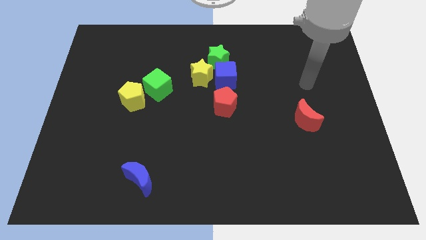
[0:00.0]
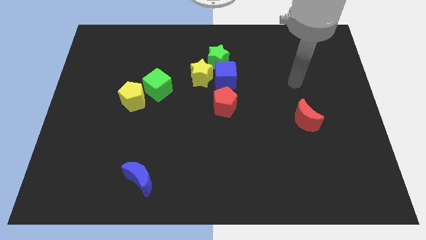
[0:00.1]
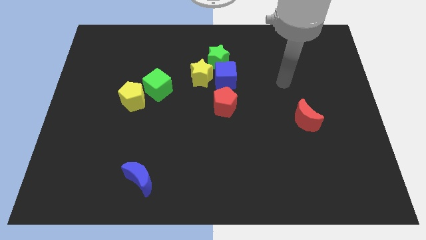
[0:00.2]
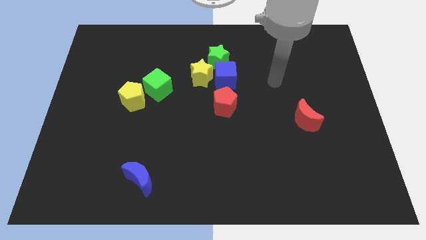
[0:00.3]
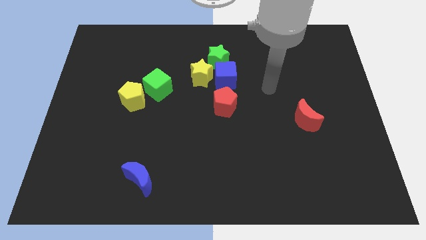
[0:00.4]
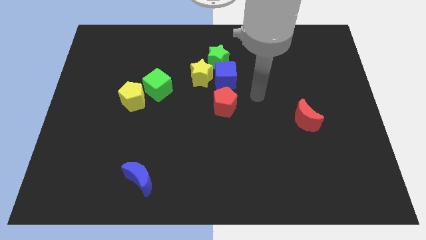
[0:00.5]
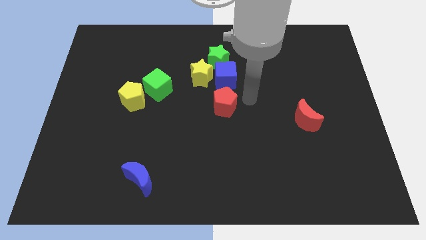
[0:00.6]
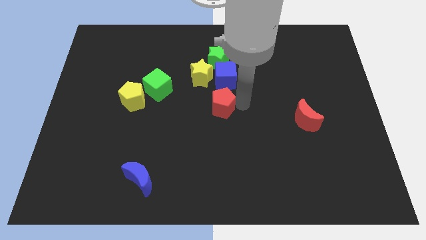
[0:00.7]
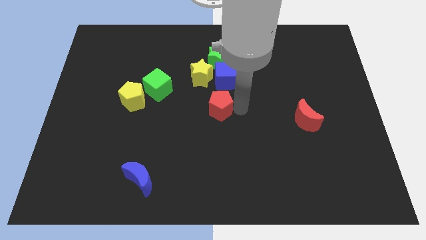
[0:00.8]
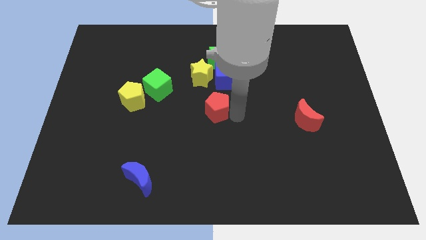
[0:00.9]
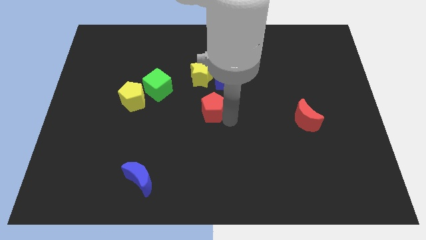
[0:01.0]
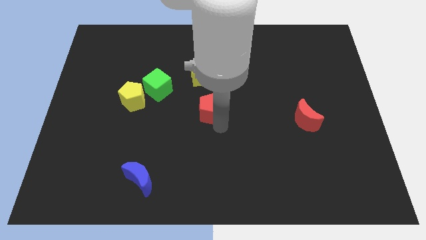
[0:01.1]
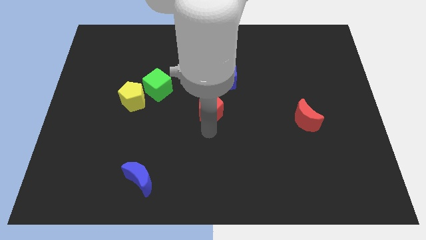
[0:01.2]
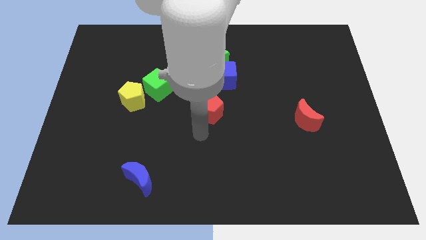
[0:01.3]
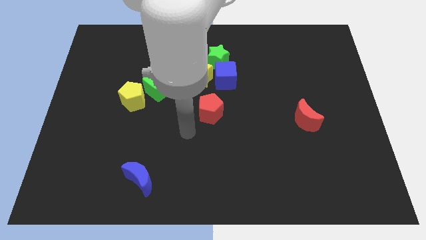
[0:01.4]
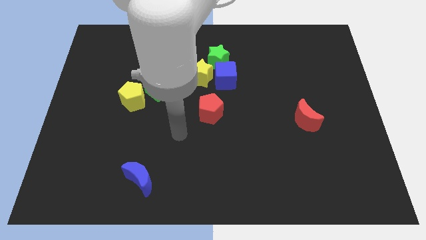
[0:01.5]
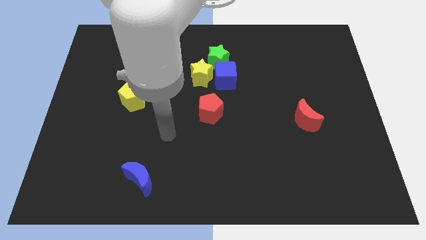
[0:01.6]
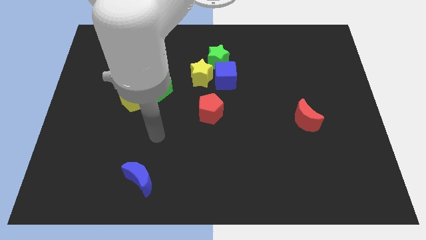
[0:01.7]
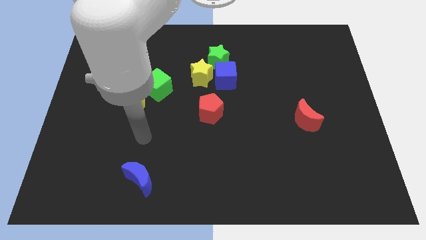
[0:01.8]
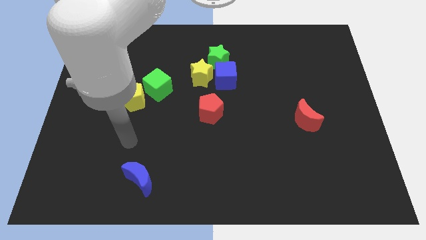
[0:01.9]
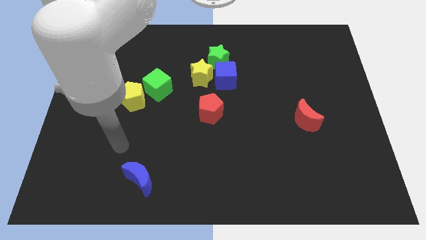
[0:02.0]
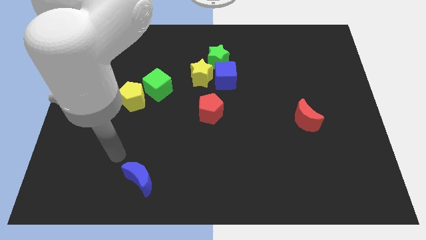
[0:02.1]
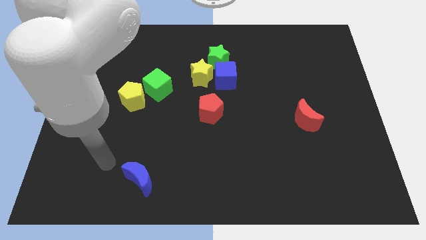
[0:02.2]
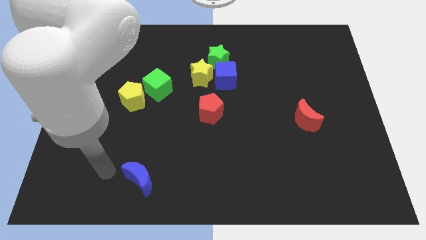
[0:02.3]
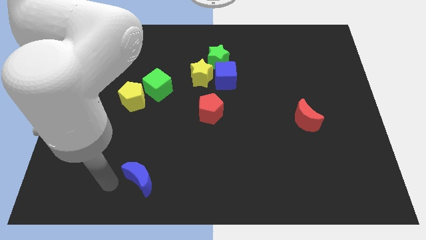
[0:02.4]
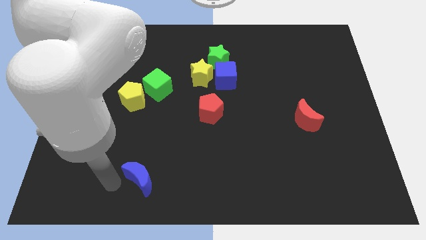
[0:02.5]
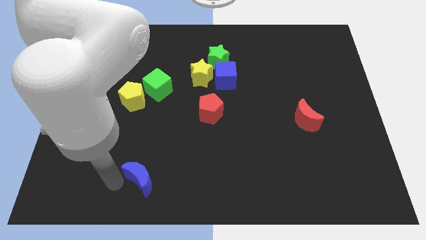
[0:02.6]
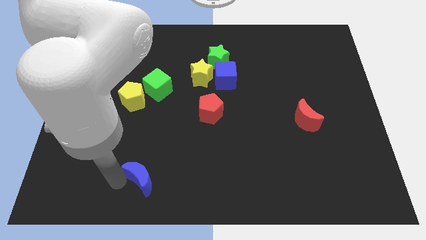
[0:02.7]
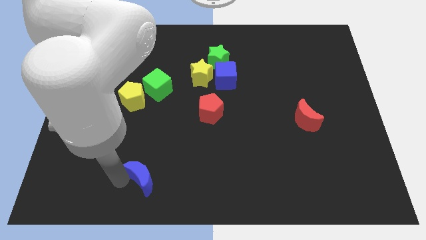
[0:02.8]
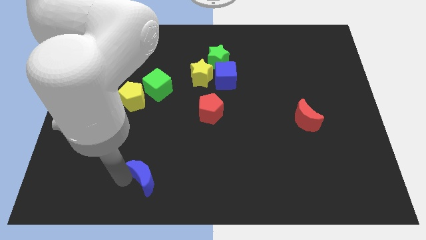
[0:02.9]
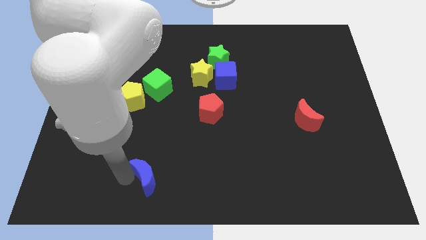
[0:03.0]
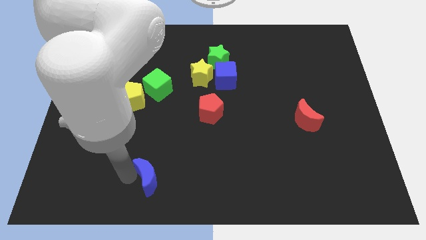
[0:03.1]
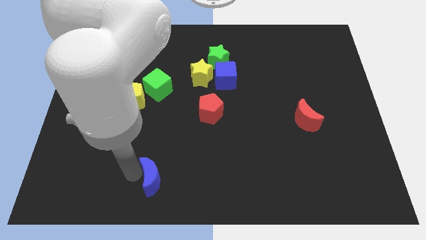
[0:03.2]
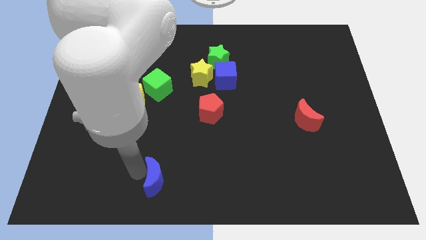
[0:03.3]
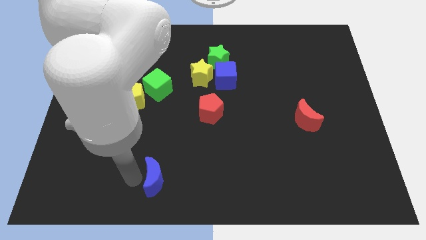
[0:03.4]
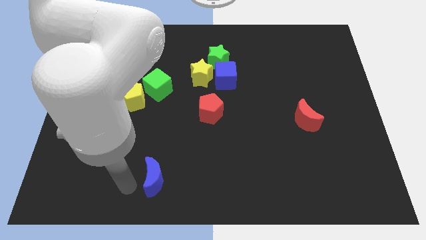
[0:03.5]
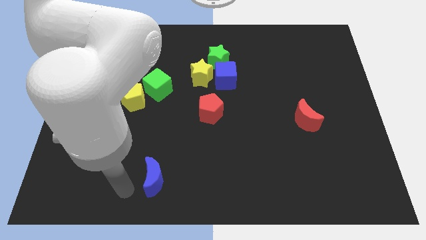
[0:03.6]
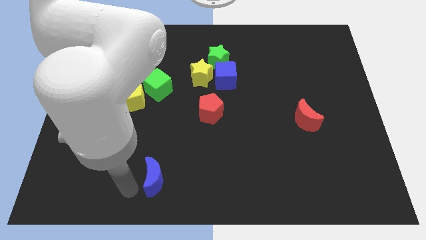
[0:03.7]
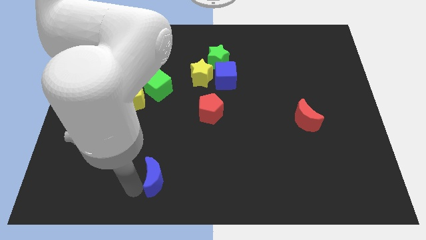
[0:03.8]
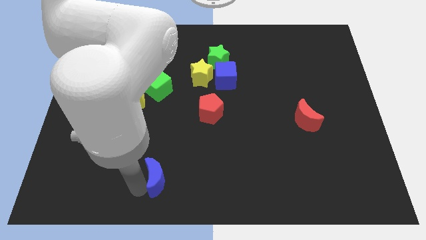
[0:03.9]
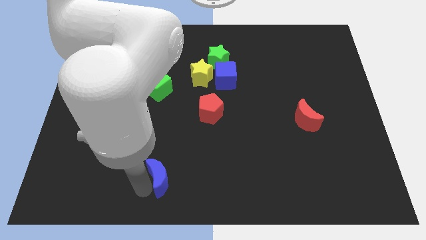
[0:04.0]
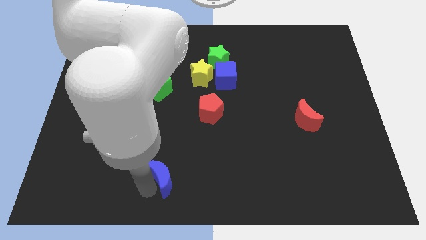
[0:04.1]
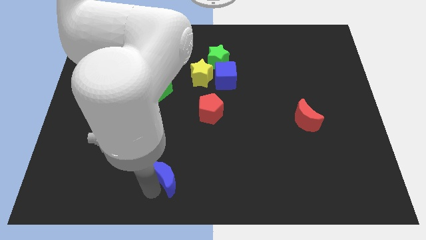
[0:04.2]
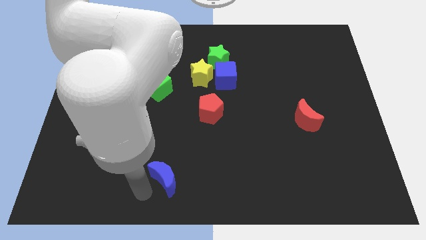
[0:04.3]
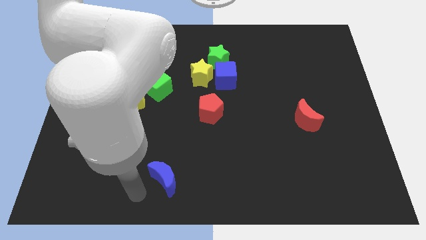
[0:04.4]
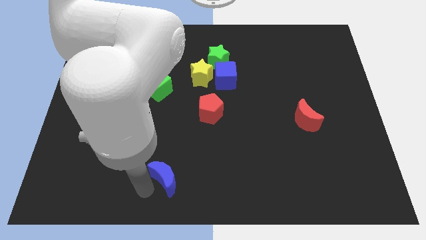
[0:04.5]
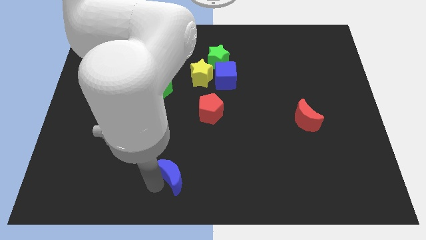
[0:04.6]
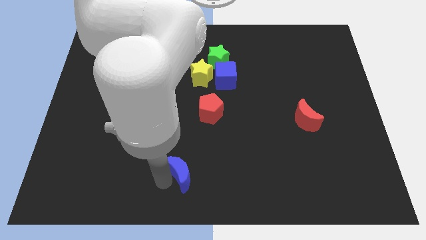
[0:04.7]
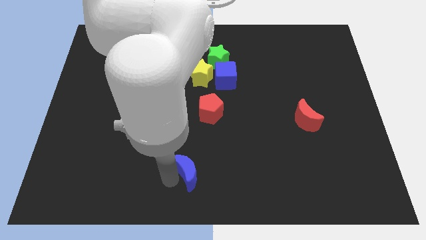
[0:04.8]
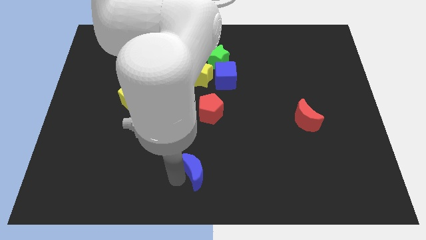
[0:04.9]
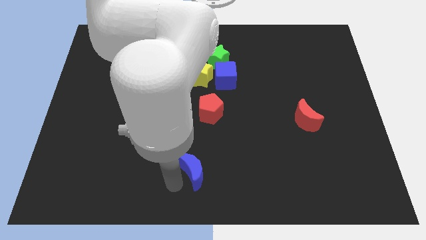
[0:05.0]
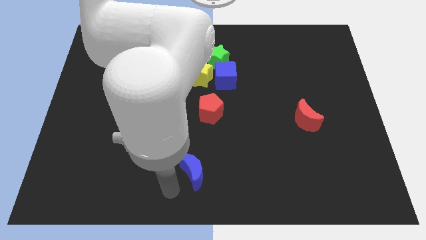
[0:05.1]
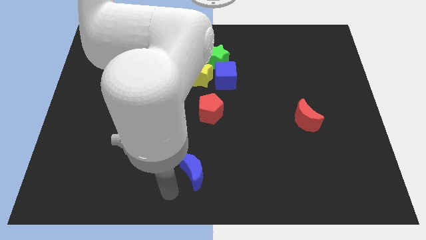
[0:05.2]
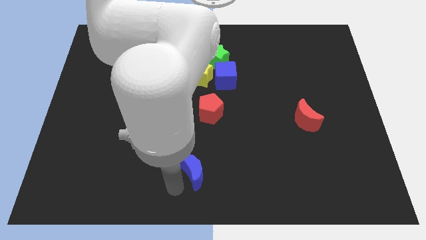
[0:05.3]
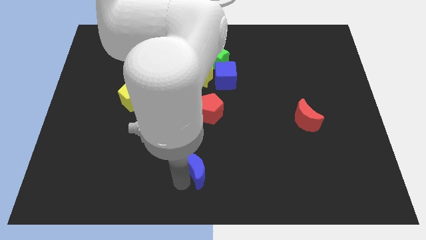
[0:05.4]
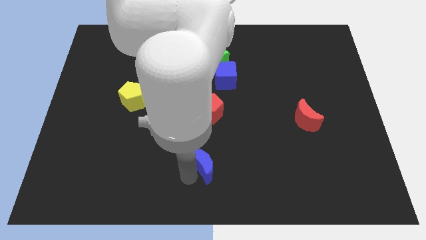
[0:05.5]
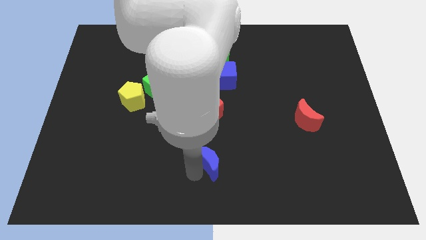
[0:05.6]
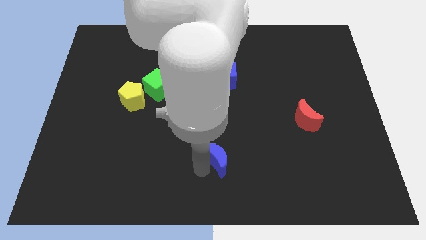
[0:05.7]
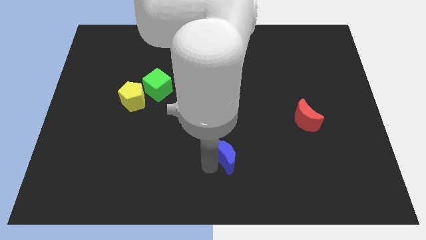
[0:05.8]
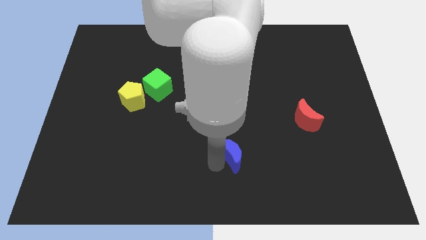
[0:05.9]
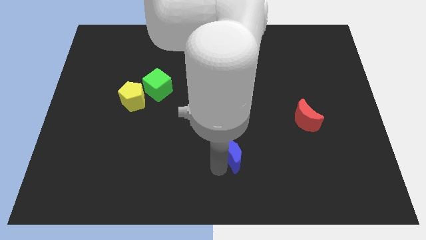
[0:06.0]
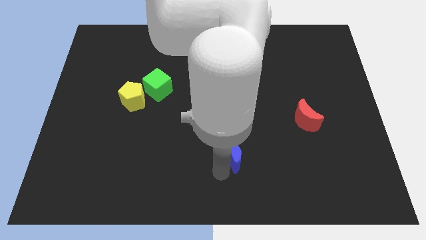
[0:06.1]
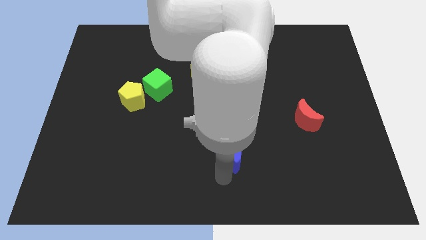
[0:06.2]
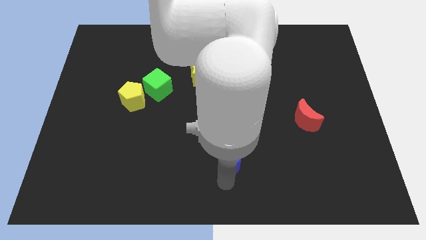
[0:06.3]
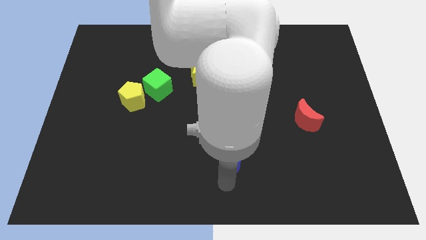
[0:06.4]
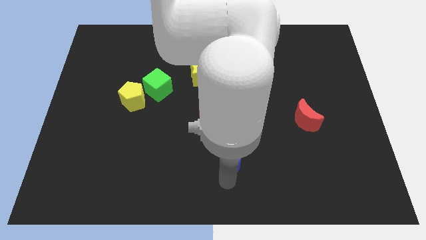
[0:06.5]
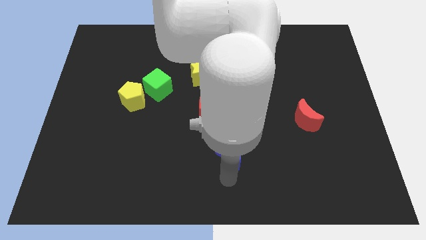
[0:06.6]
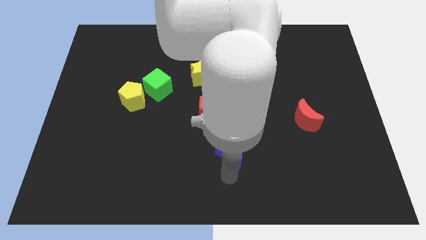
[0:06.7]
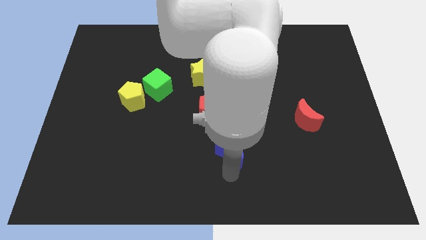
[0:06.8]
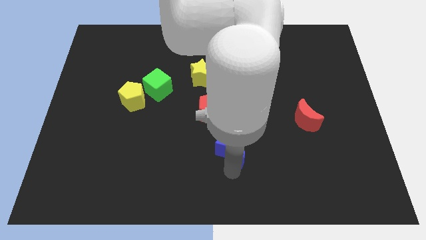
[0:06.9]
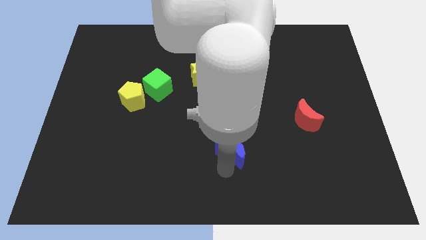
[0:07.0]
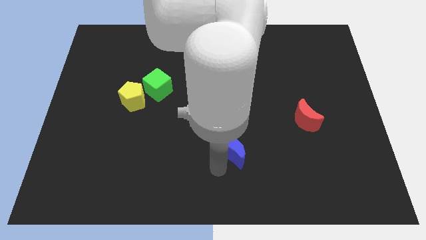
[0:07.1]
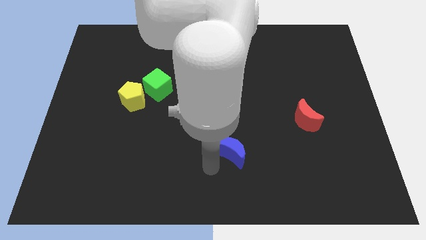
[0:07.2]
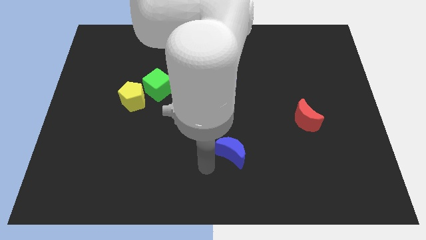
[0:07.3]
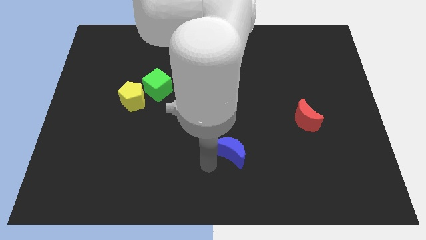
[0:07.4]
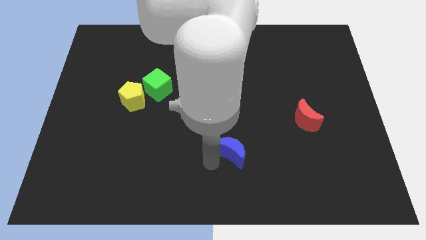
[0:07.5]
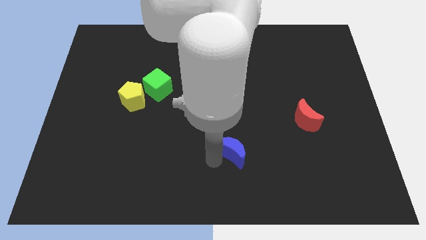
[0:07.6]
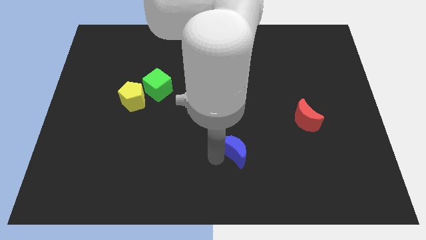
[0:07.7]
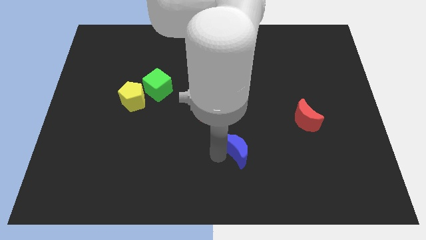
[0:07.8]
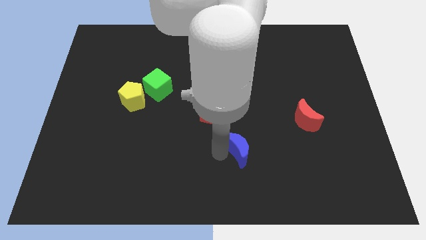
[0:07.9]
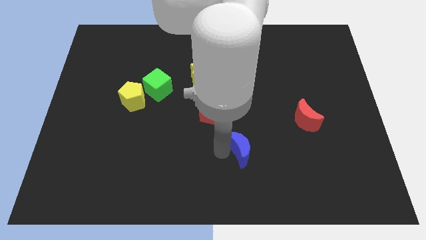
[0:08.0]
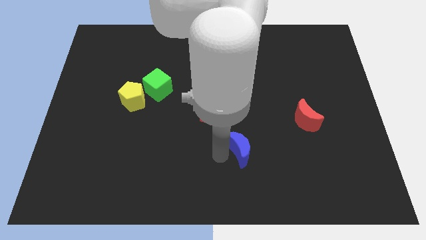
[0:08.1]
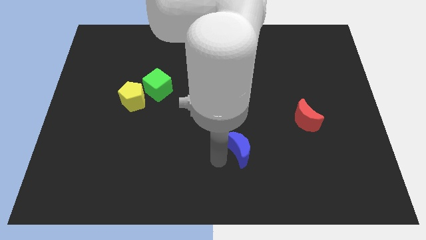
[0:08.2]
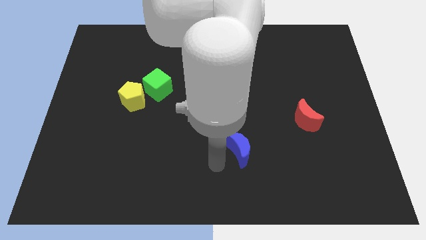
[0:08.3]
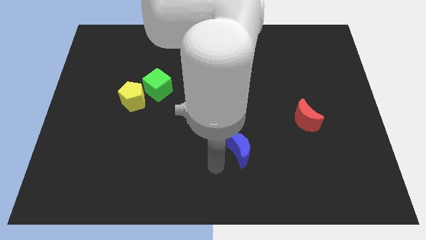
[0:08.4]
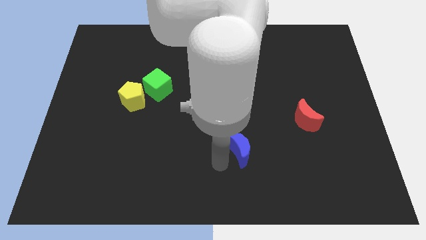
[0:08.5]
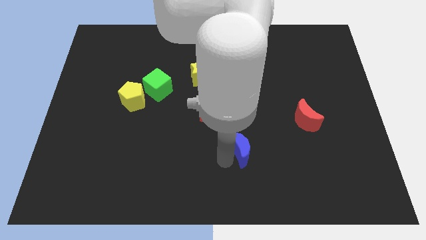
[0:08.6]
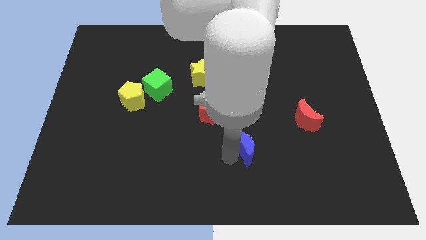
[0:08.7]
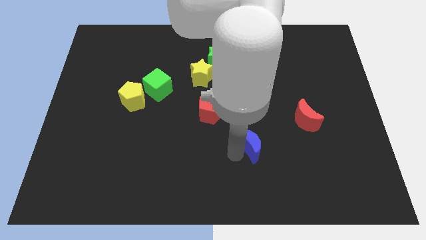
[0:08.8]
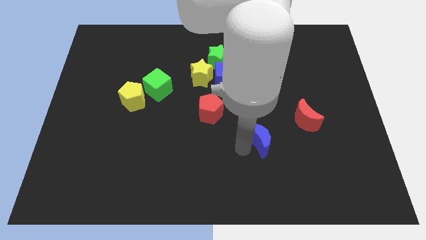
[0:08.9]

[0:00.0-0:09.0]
slide the blue moon to the bottom left side of the red moon
